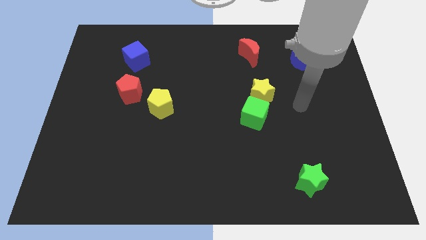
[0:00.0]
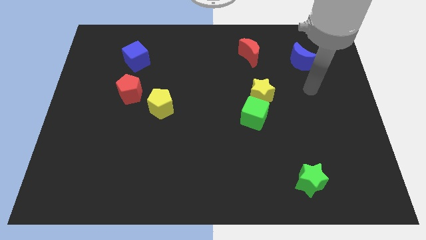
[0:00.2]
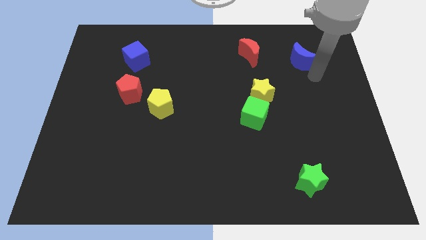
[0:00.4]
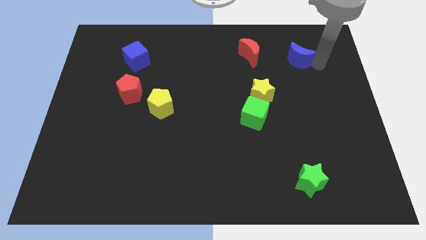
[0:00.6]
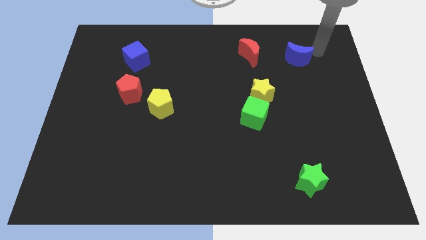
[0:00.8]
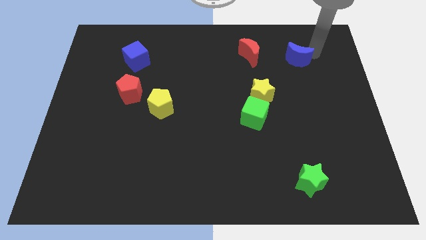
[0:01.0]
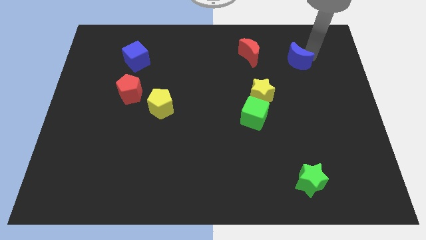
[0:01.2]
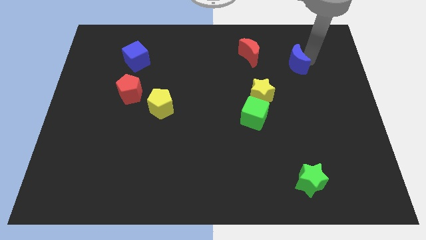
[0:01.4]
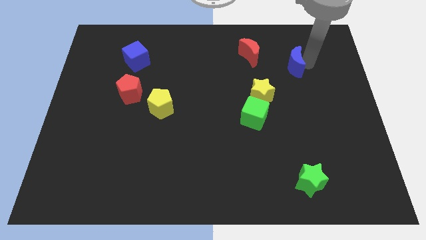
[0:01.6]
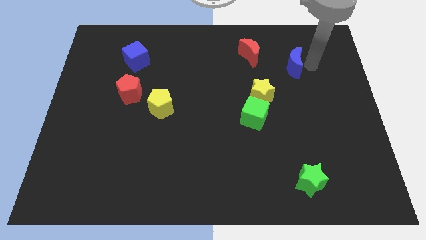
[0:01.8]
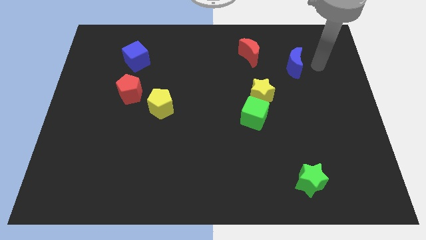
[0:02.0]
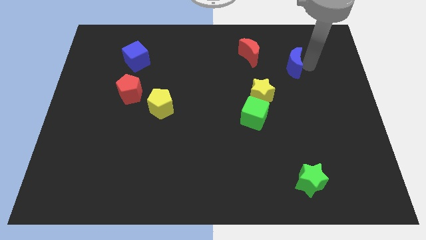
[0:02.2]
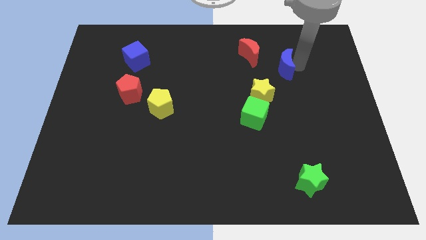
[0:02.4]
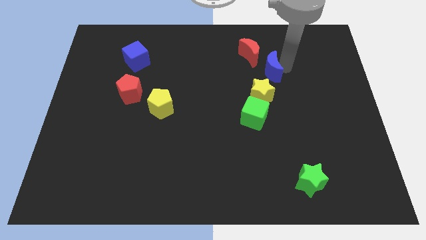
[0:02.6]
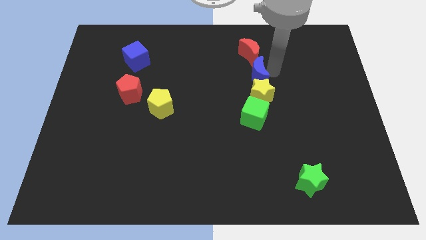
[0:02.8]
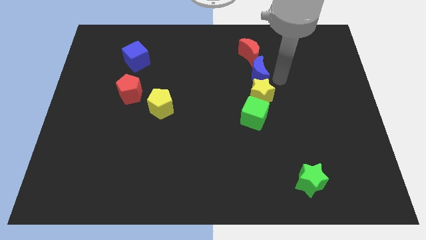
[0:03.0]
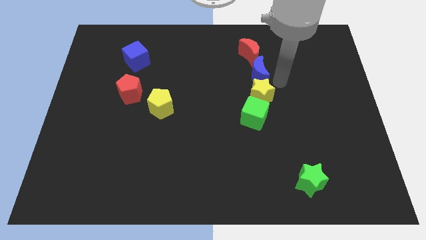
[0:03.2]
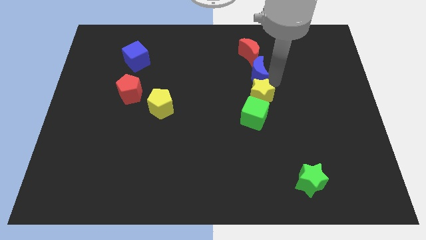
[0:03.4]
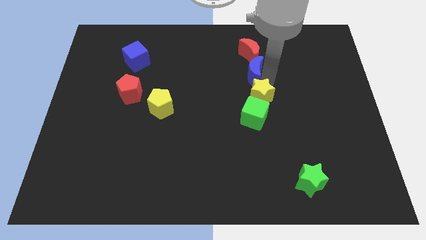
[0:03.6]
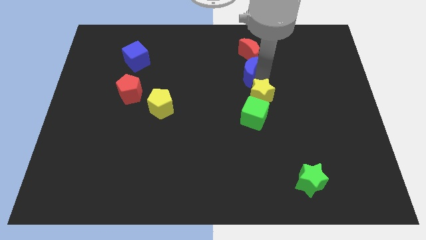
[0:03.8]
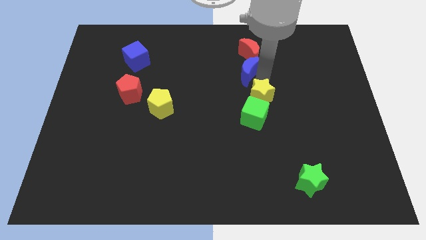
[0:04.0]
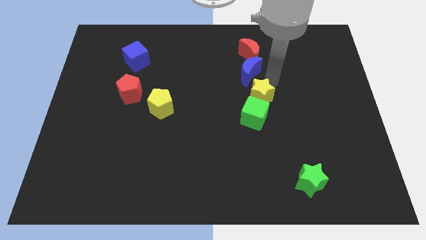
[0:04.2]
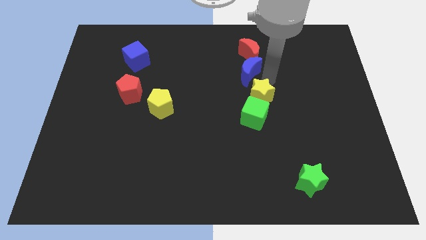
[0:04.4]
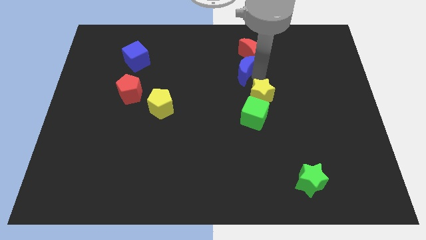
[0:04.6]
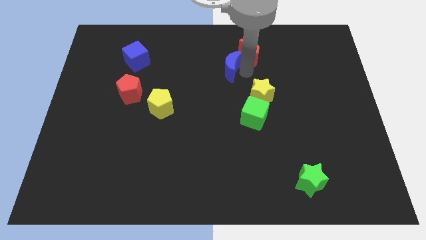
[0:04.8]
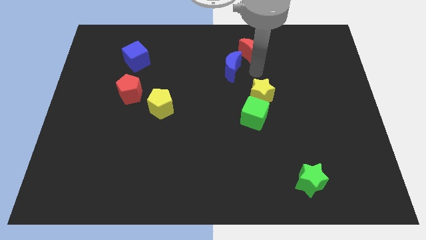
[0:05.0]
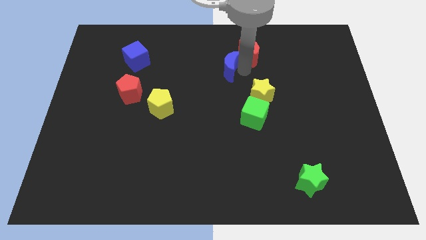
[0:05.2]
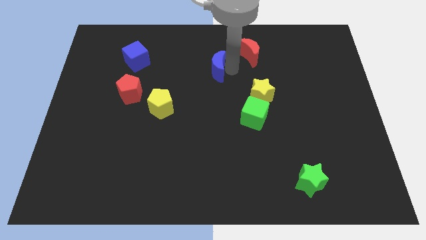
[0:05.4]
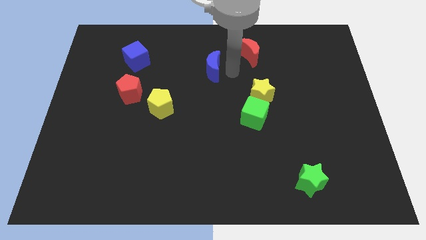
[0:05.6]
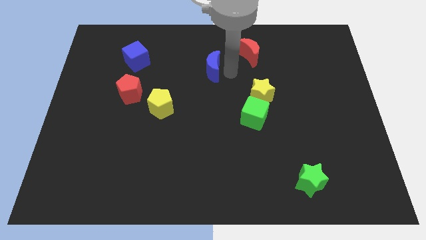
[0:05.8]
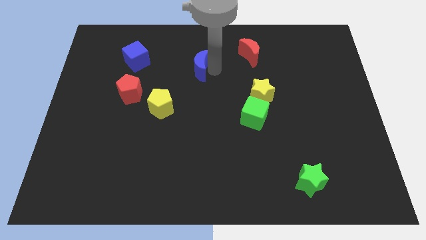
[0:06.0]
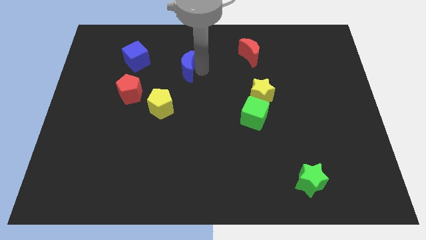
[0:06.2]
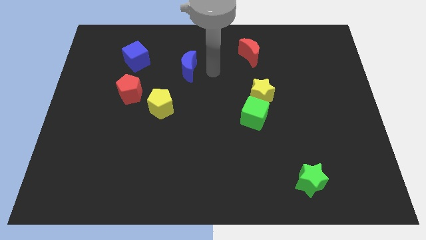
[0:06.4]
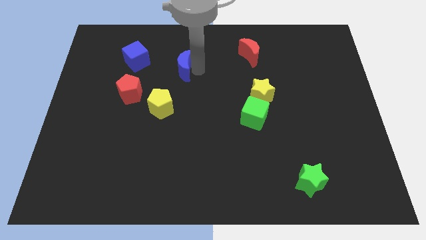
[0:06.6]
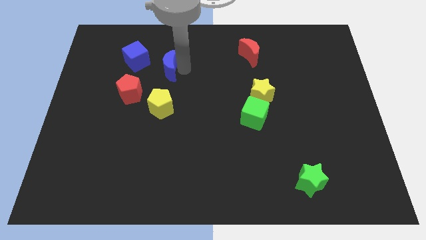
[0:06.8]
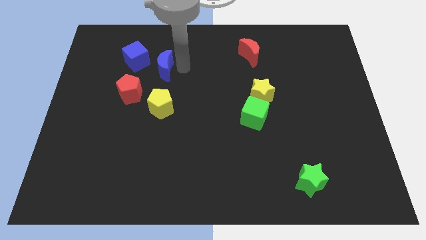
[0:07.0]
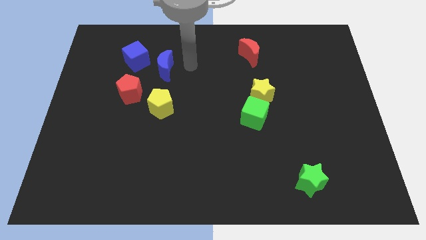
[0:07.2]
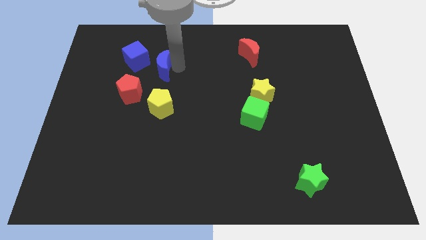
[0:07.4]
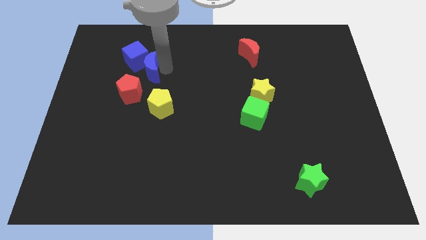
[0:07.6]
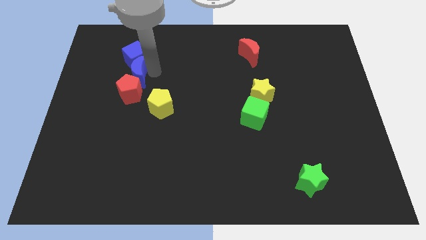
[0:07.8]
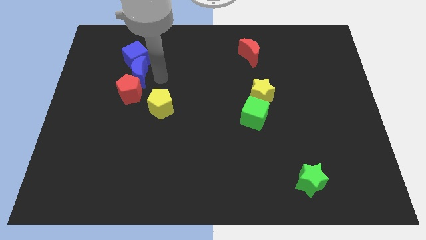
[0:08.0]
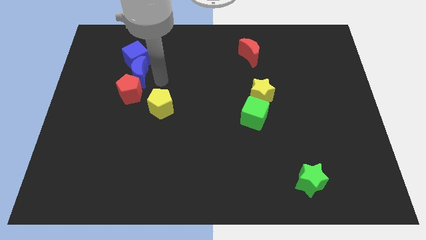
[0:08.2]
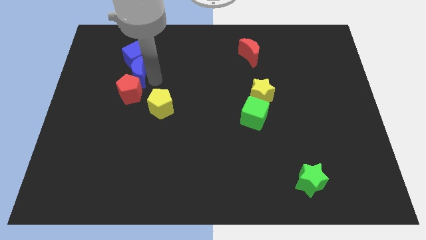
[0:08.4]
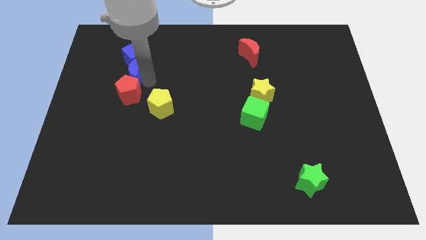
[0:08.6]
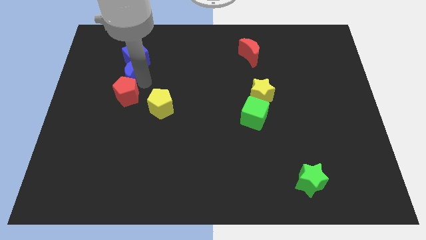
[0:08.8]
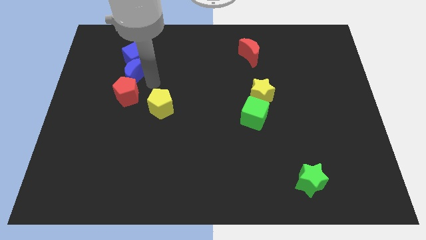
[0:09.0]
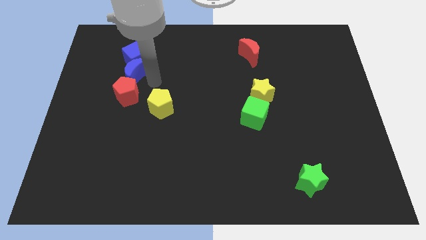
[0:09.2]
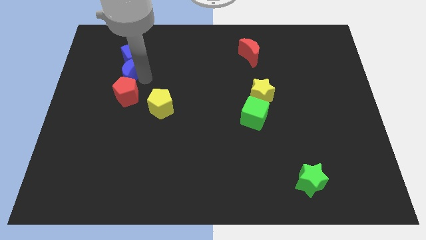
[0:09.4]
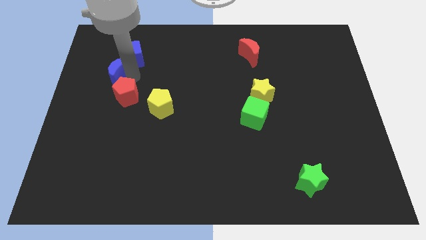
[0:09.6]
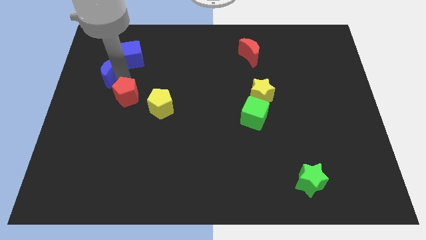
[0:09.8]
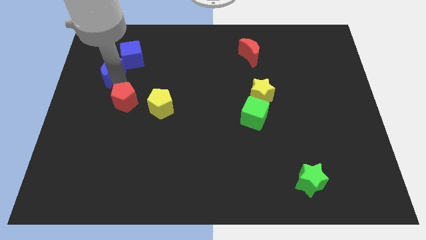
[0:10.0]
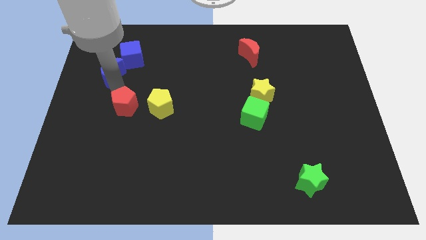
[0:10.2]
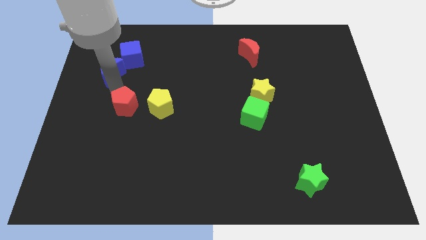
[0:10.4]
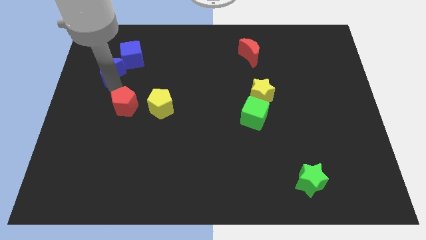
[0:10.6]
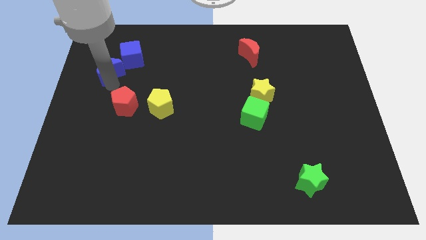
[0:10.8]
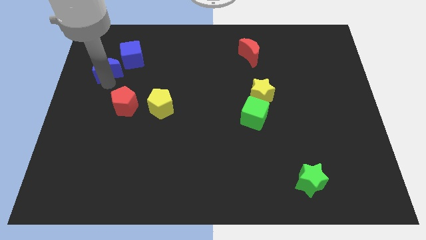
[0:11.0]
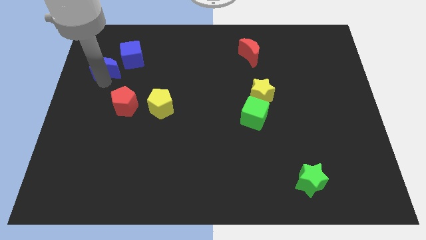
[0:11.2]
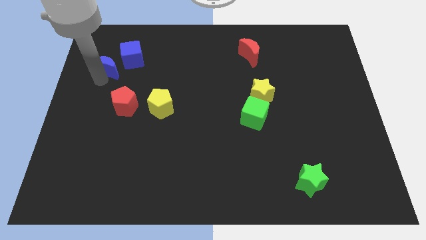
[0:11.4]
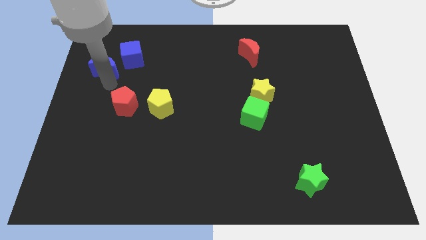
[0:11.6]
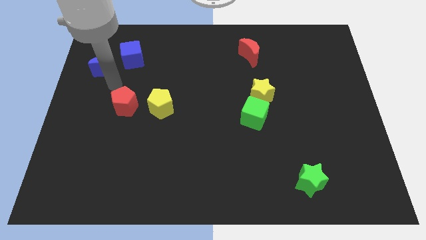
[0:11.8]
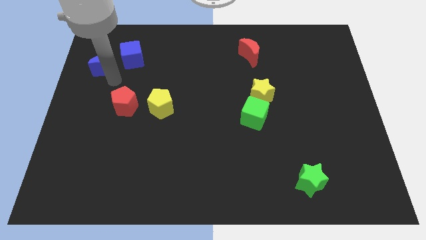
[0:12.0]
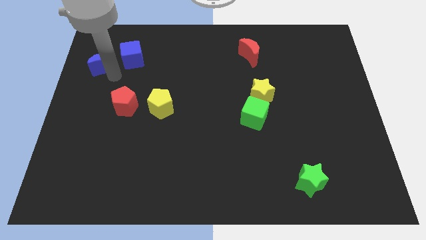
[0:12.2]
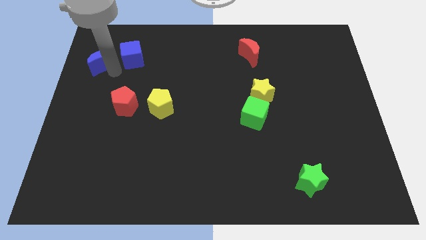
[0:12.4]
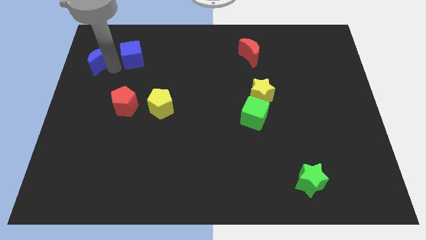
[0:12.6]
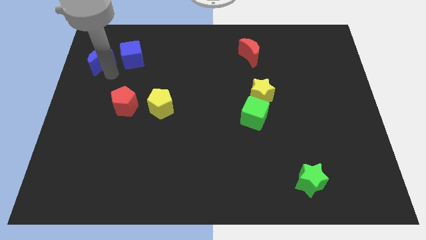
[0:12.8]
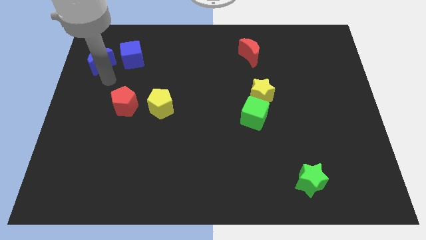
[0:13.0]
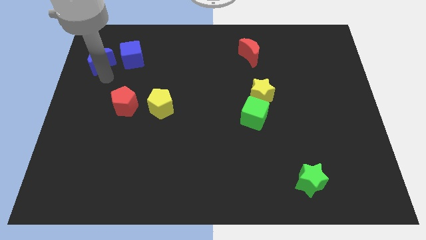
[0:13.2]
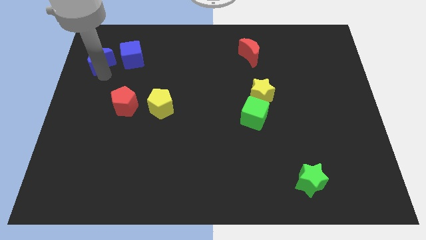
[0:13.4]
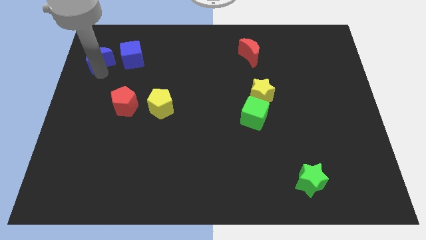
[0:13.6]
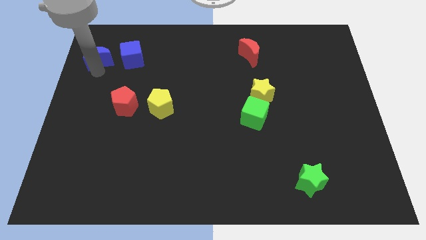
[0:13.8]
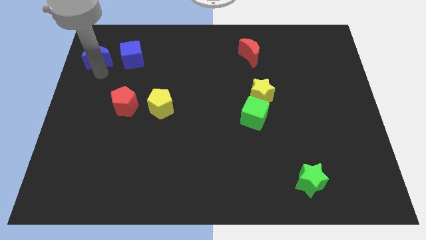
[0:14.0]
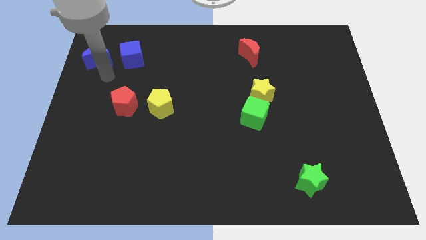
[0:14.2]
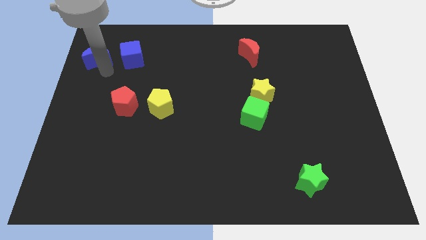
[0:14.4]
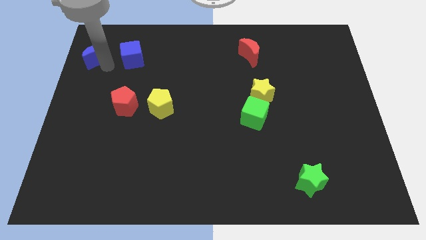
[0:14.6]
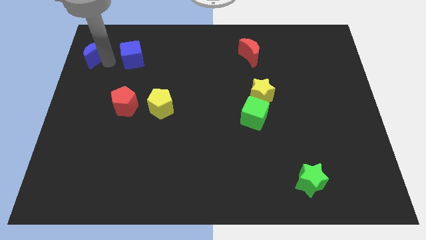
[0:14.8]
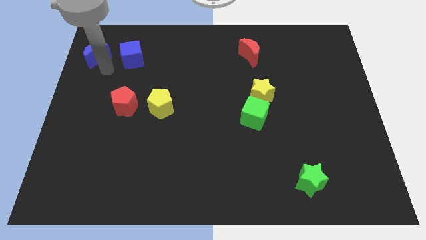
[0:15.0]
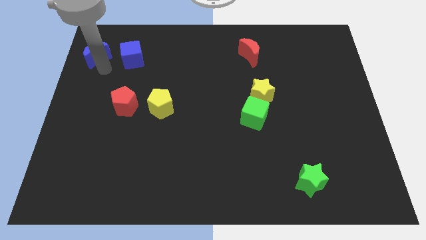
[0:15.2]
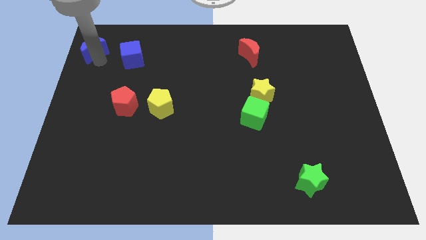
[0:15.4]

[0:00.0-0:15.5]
slide the blue moon to the top left corner
